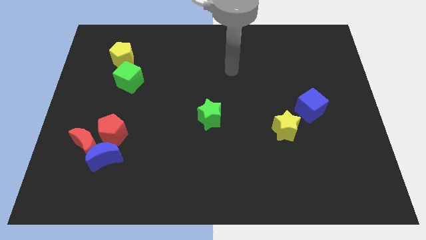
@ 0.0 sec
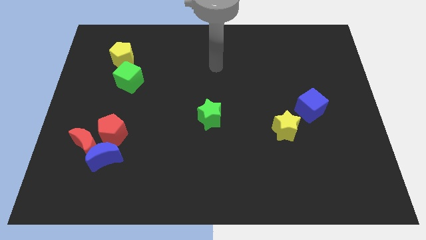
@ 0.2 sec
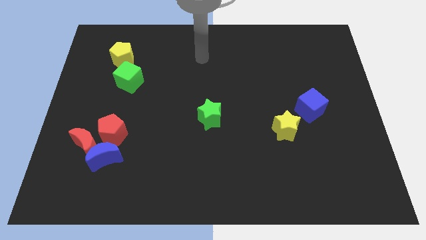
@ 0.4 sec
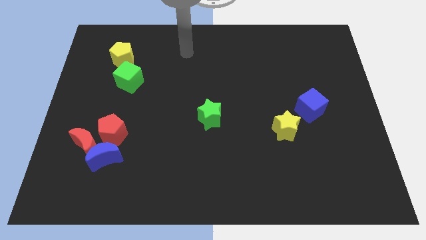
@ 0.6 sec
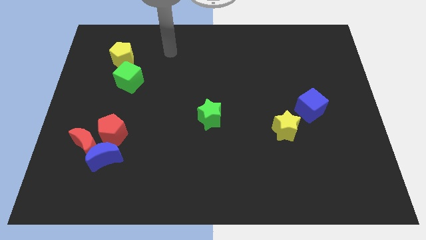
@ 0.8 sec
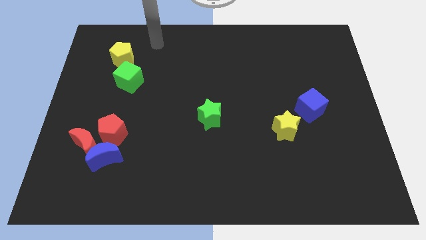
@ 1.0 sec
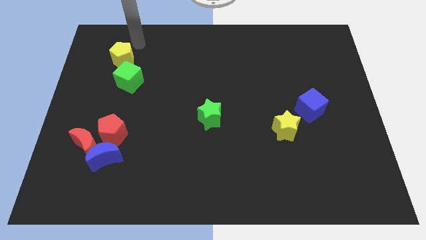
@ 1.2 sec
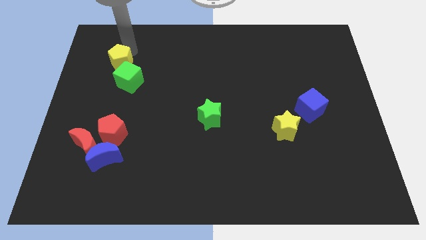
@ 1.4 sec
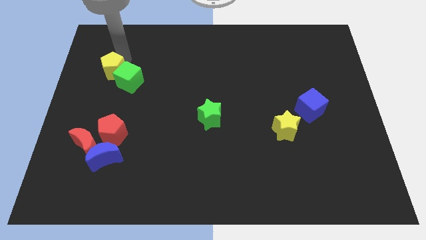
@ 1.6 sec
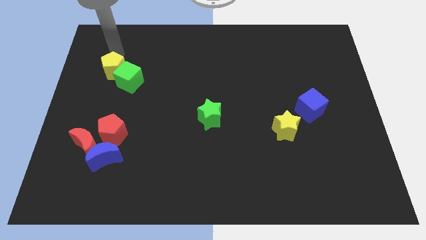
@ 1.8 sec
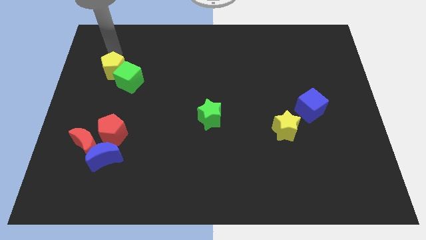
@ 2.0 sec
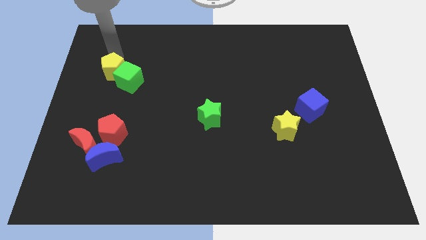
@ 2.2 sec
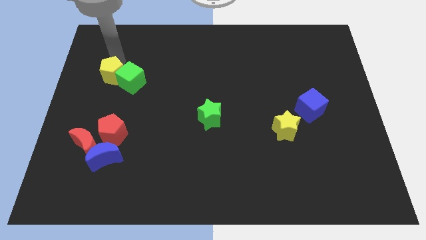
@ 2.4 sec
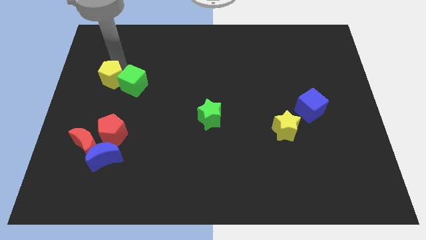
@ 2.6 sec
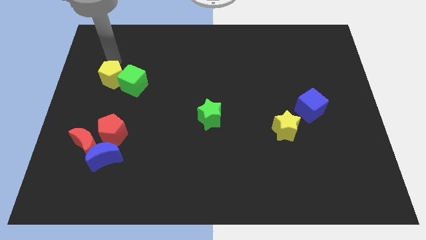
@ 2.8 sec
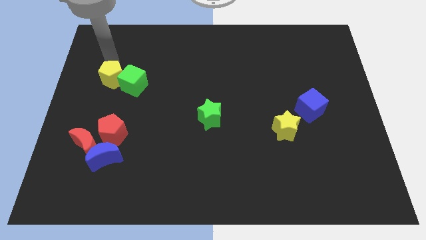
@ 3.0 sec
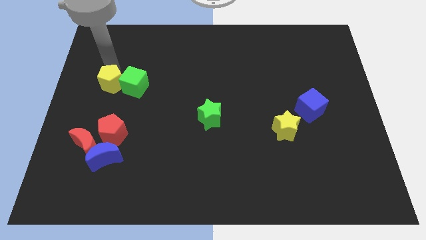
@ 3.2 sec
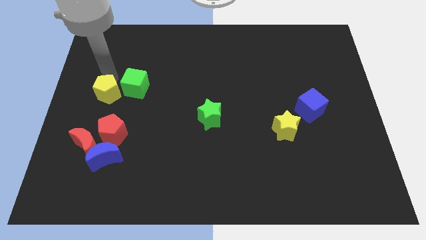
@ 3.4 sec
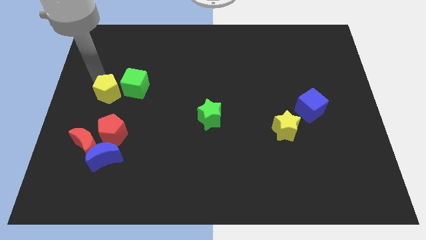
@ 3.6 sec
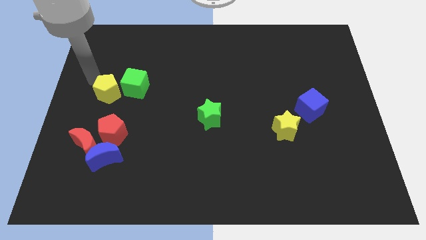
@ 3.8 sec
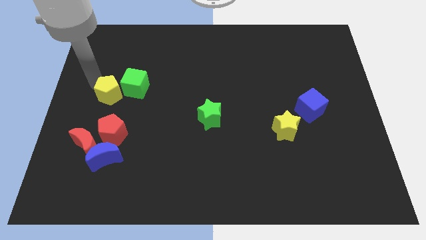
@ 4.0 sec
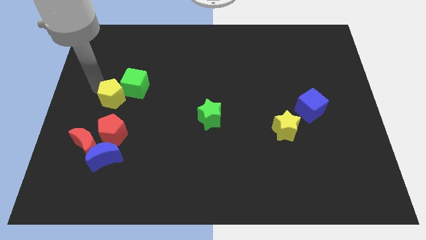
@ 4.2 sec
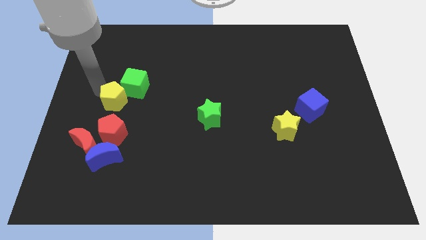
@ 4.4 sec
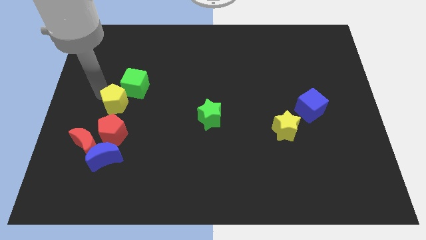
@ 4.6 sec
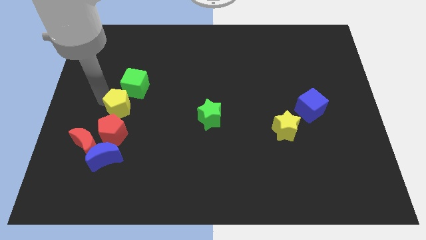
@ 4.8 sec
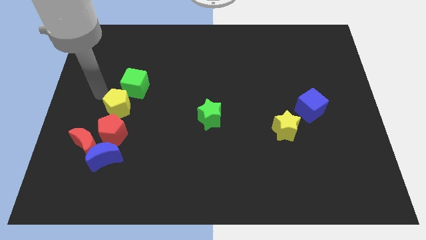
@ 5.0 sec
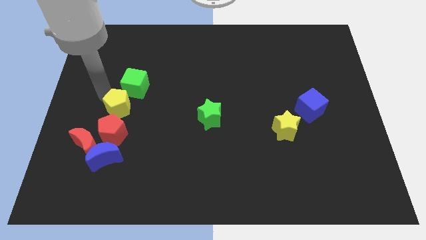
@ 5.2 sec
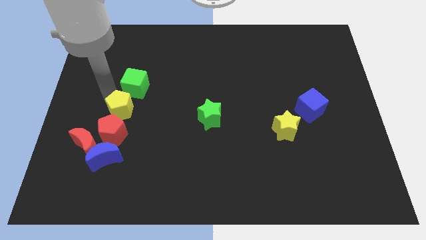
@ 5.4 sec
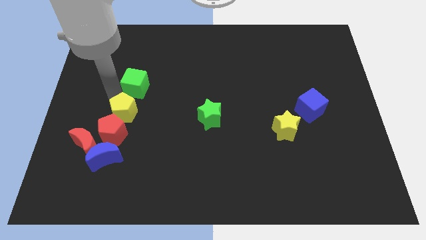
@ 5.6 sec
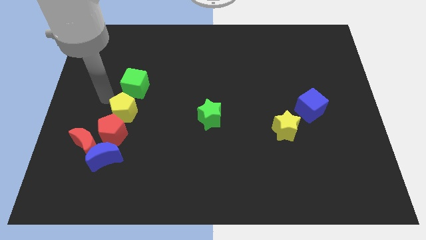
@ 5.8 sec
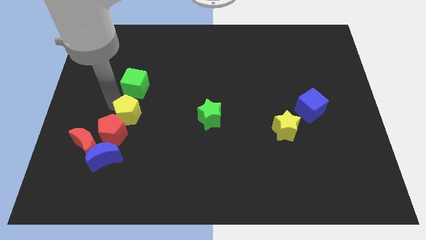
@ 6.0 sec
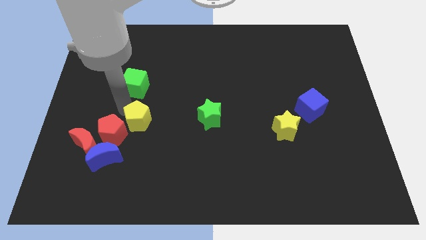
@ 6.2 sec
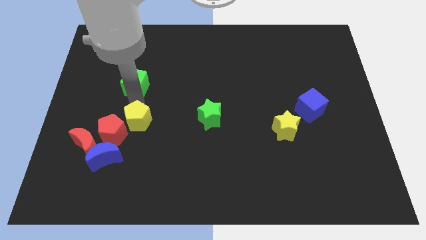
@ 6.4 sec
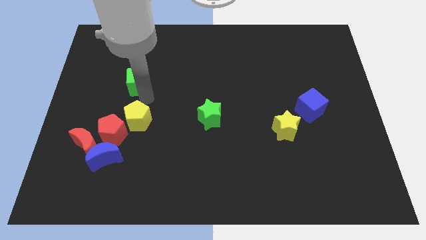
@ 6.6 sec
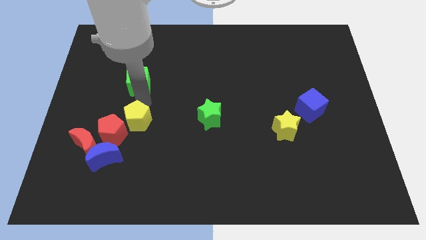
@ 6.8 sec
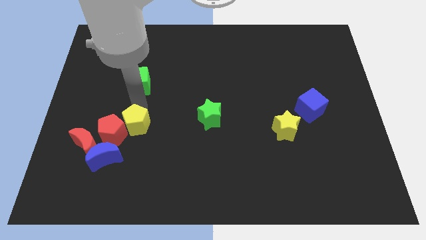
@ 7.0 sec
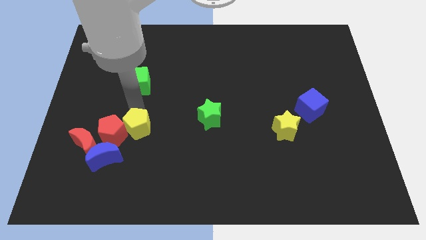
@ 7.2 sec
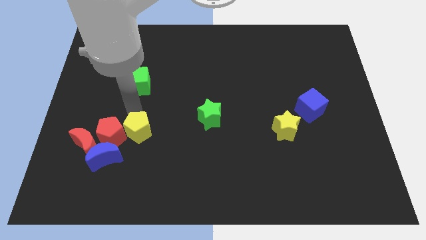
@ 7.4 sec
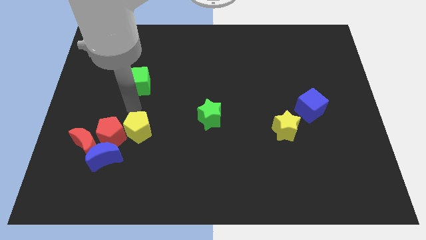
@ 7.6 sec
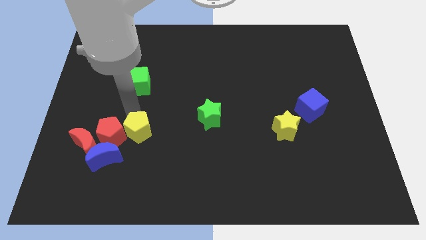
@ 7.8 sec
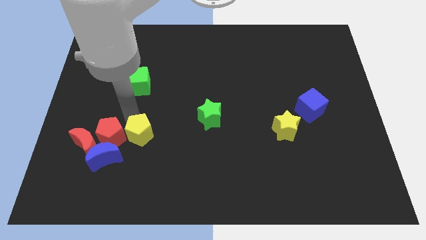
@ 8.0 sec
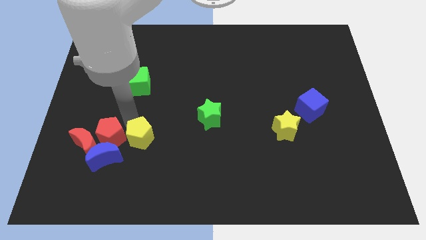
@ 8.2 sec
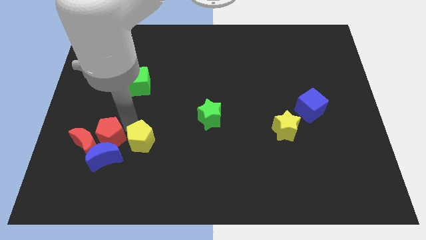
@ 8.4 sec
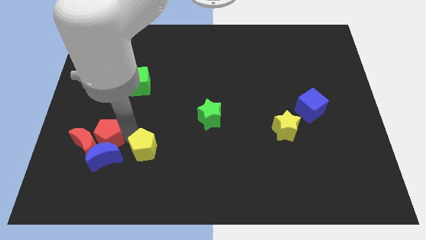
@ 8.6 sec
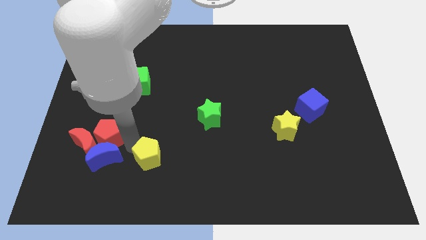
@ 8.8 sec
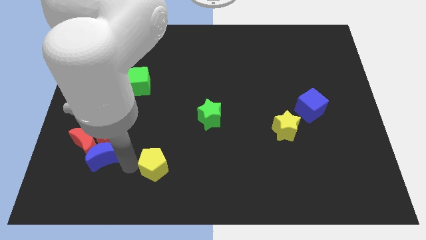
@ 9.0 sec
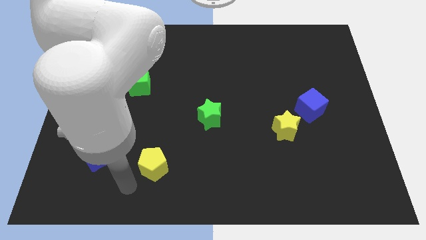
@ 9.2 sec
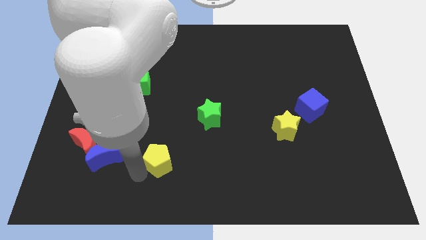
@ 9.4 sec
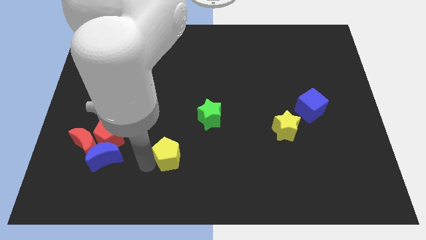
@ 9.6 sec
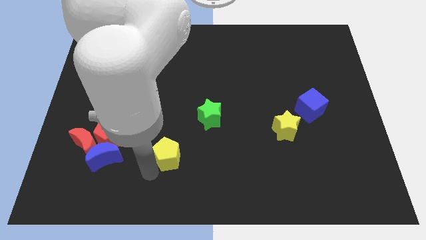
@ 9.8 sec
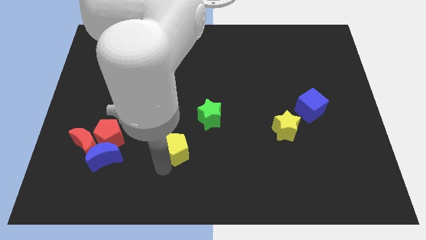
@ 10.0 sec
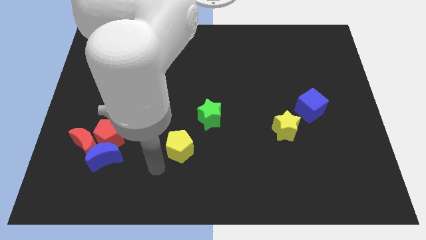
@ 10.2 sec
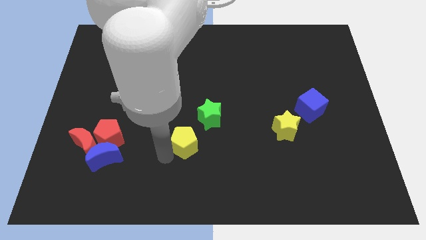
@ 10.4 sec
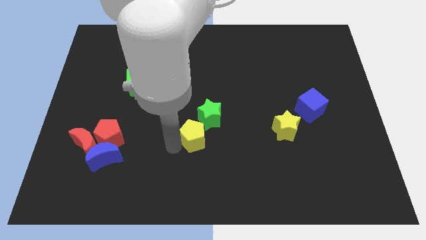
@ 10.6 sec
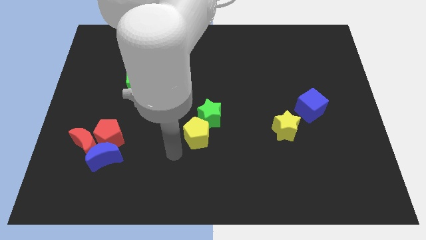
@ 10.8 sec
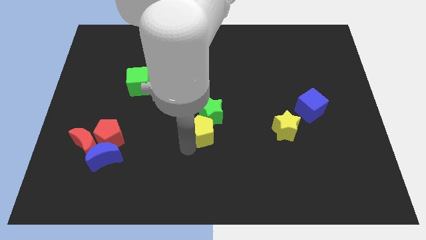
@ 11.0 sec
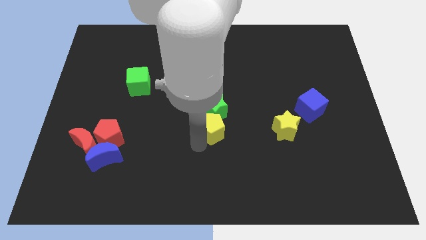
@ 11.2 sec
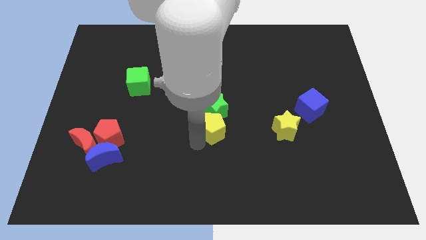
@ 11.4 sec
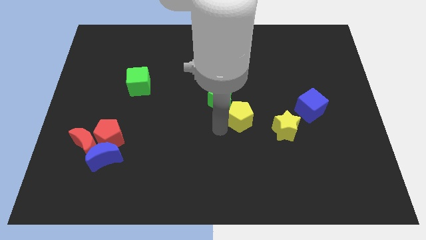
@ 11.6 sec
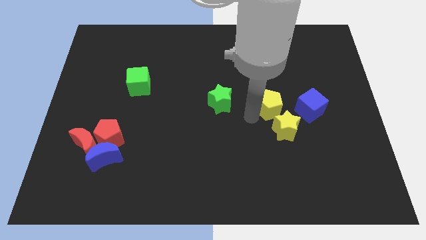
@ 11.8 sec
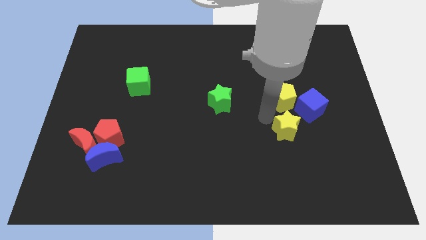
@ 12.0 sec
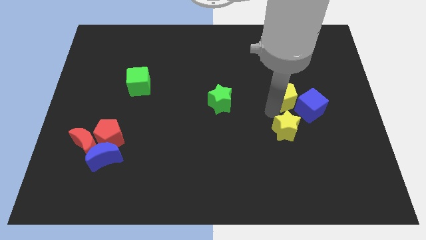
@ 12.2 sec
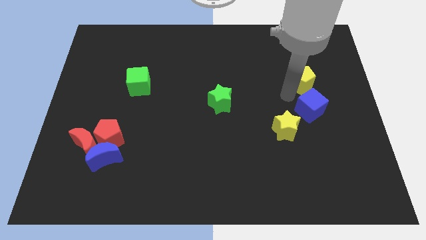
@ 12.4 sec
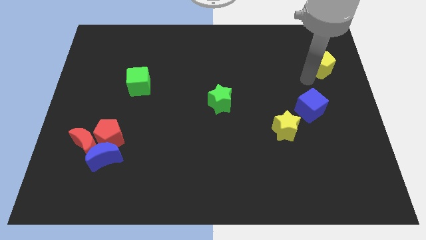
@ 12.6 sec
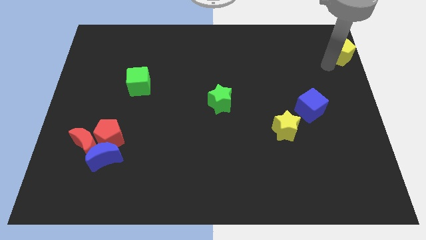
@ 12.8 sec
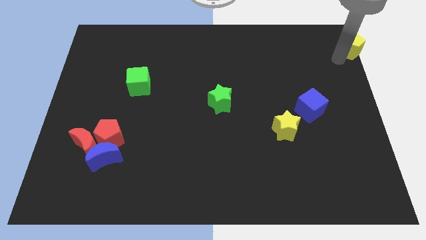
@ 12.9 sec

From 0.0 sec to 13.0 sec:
move the yellow pentagon to the top right corner

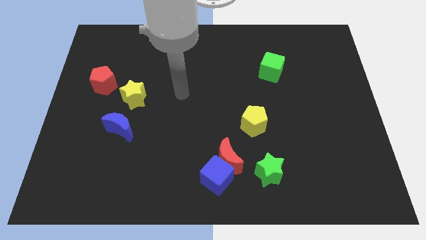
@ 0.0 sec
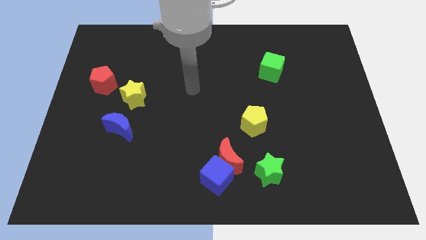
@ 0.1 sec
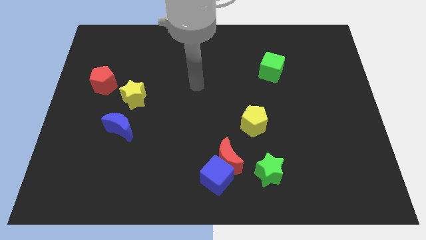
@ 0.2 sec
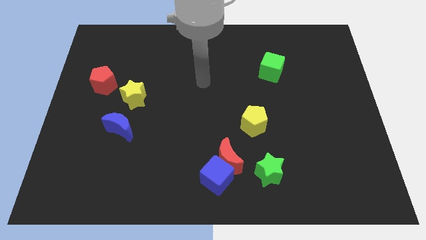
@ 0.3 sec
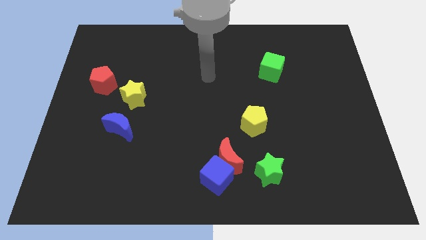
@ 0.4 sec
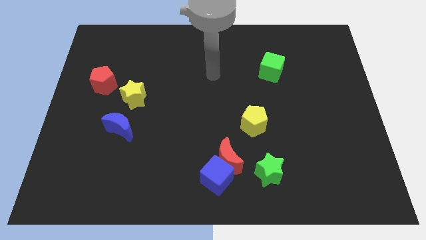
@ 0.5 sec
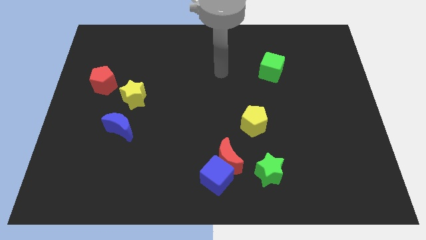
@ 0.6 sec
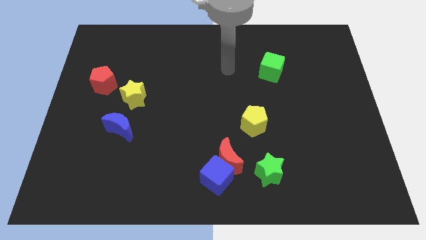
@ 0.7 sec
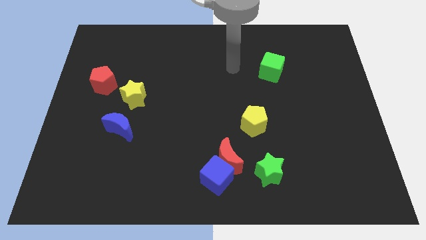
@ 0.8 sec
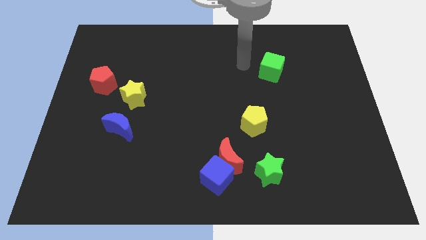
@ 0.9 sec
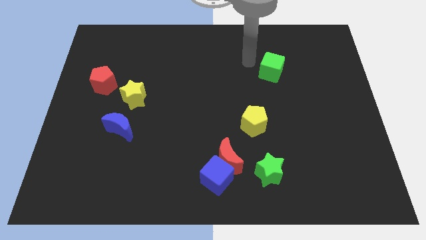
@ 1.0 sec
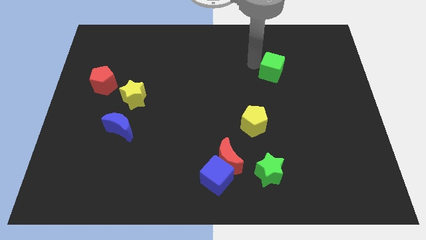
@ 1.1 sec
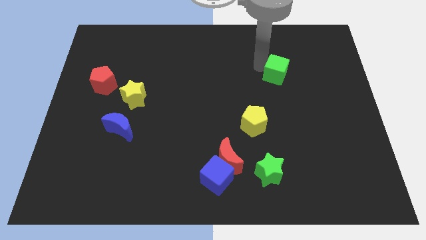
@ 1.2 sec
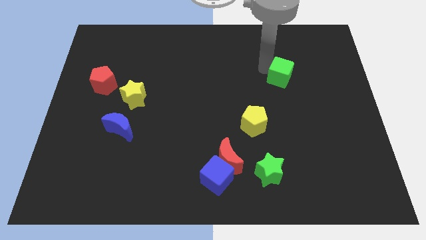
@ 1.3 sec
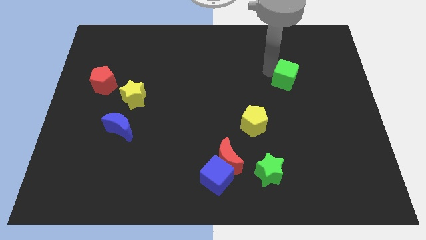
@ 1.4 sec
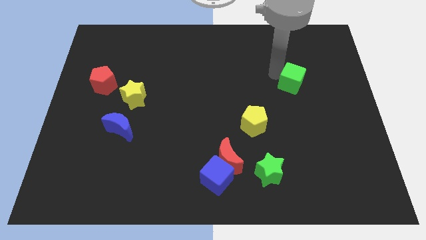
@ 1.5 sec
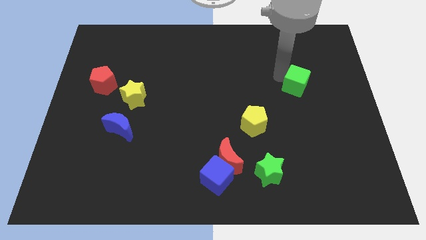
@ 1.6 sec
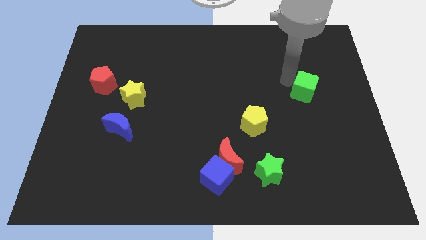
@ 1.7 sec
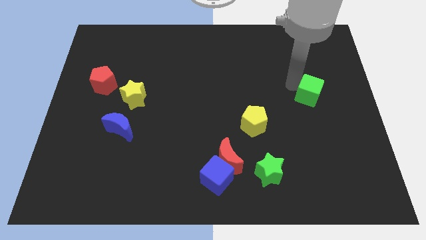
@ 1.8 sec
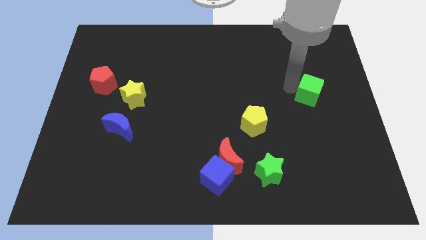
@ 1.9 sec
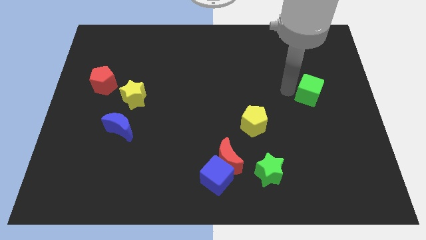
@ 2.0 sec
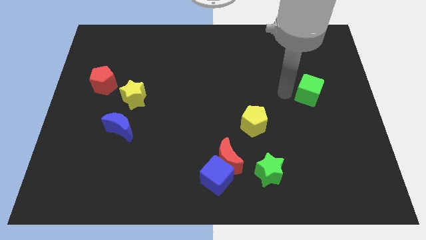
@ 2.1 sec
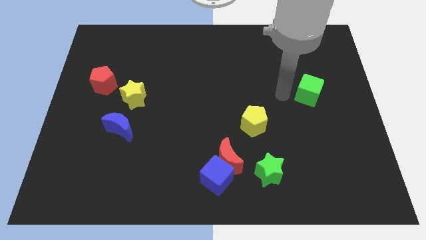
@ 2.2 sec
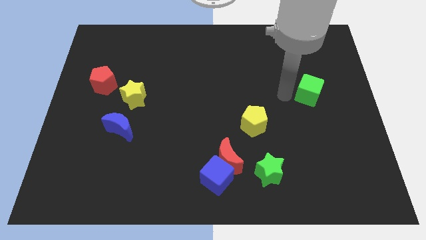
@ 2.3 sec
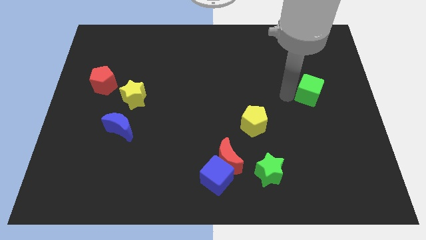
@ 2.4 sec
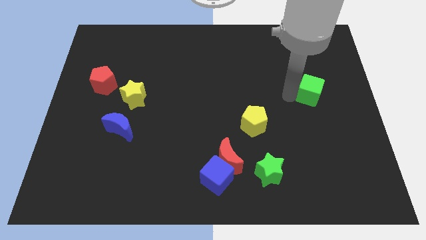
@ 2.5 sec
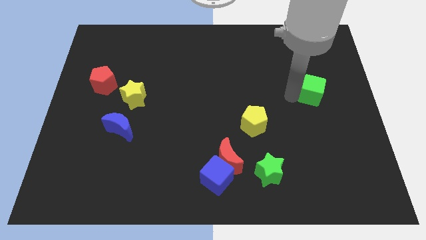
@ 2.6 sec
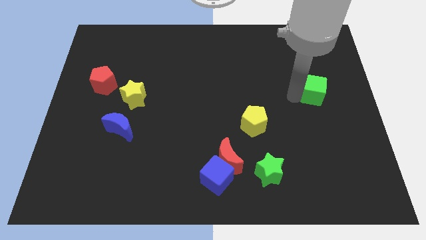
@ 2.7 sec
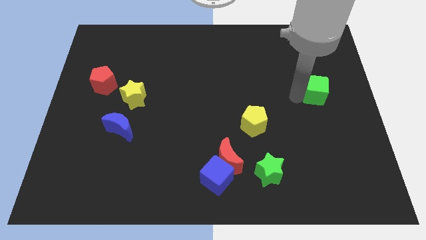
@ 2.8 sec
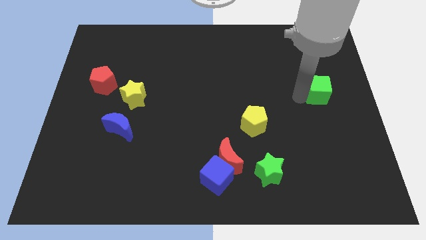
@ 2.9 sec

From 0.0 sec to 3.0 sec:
put the green cube to the center right
